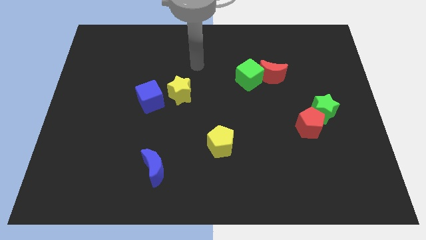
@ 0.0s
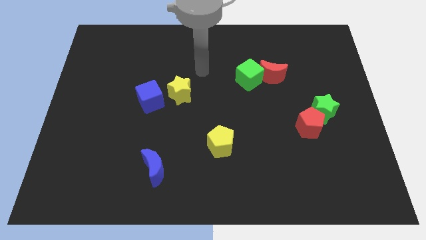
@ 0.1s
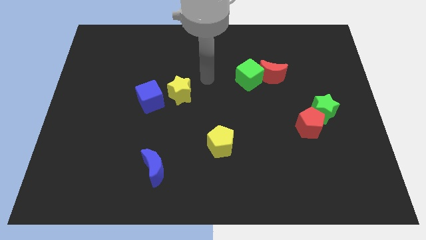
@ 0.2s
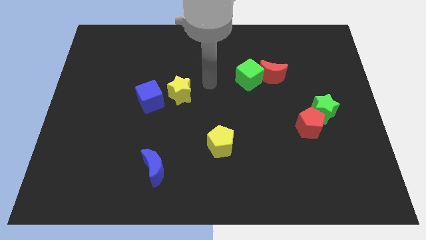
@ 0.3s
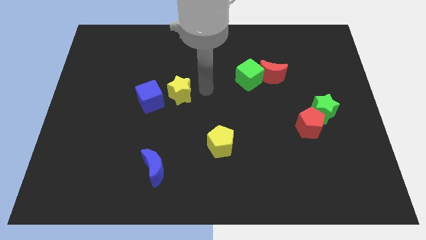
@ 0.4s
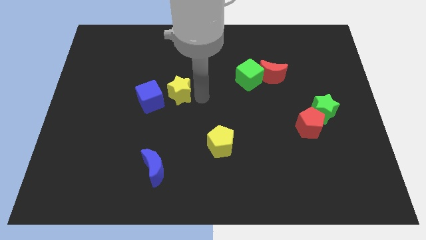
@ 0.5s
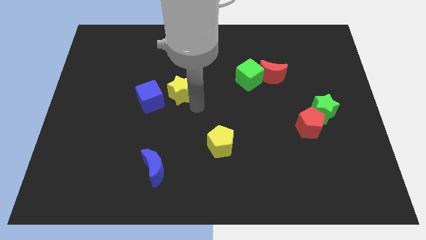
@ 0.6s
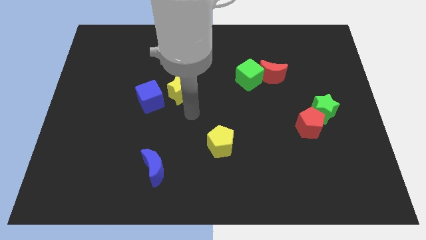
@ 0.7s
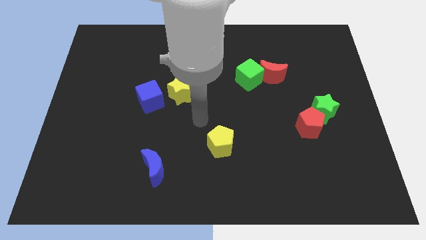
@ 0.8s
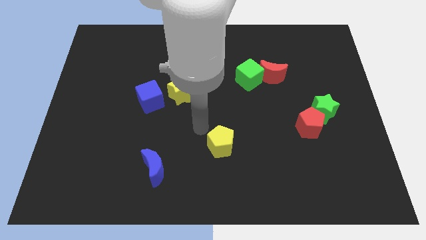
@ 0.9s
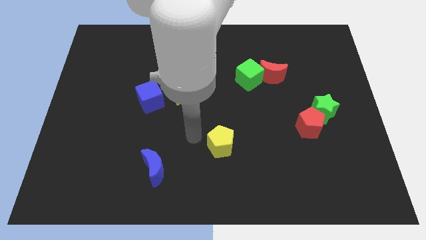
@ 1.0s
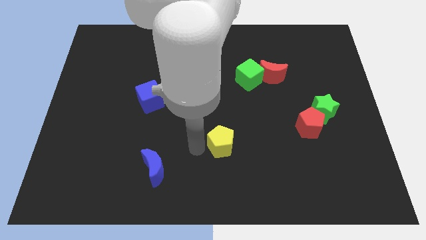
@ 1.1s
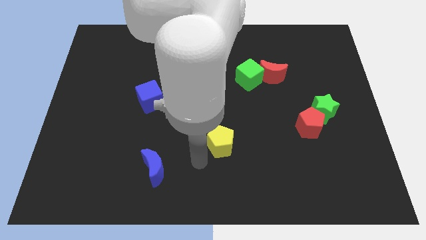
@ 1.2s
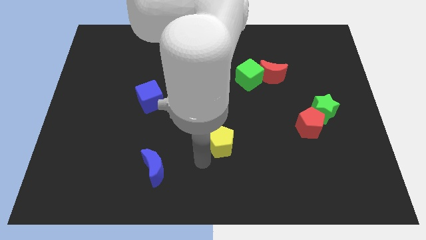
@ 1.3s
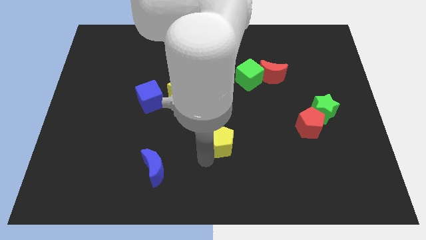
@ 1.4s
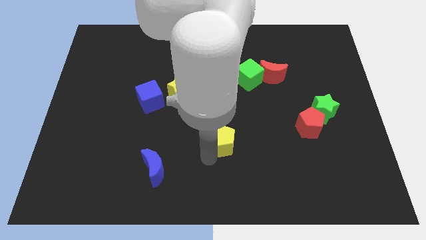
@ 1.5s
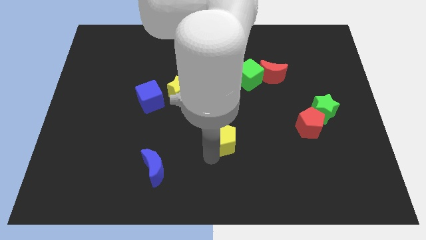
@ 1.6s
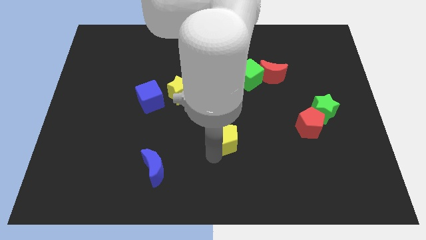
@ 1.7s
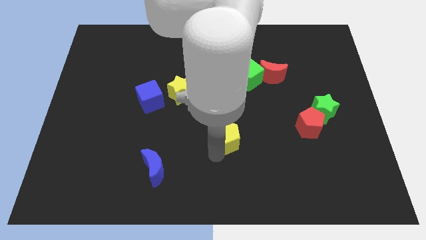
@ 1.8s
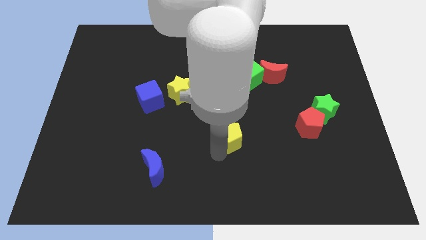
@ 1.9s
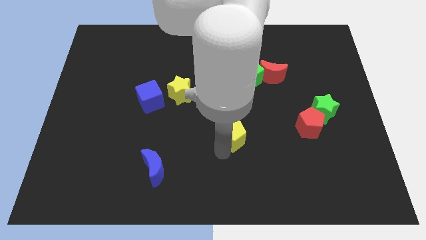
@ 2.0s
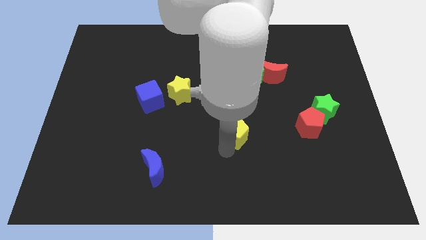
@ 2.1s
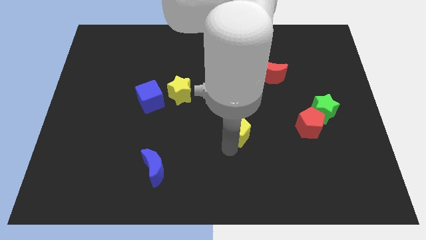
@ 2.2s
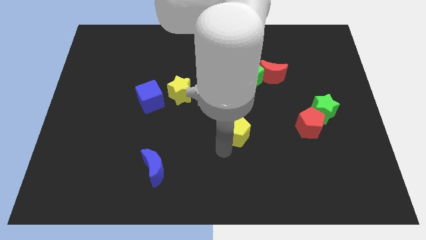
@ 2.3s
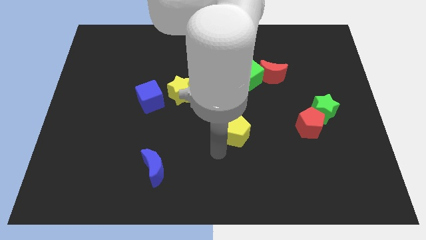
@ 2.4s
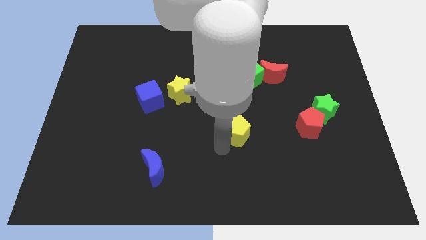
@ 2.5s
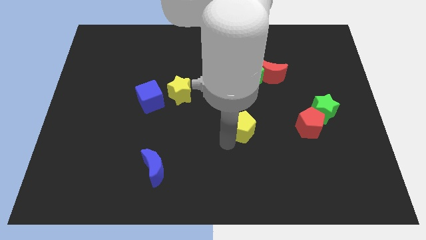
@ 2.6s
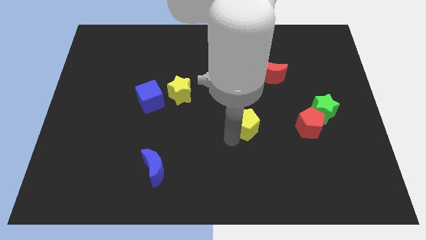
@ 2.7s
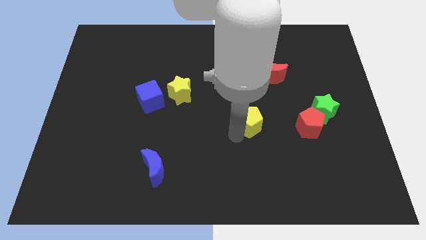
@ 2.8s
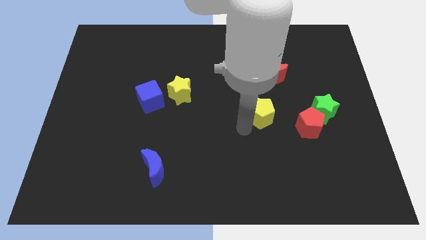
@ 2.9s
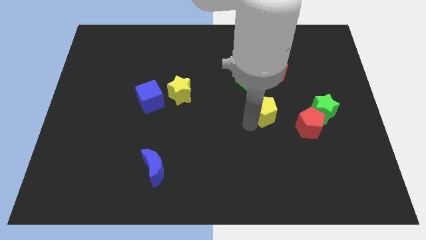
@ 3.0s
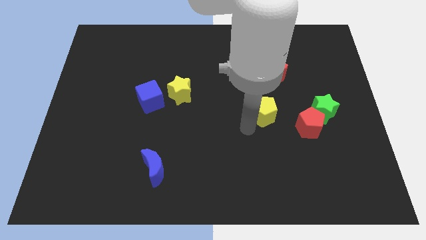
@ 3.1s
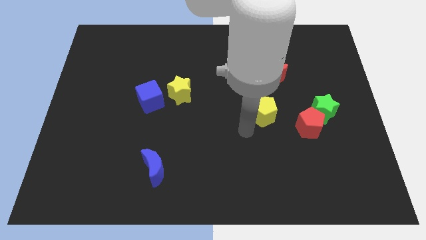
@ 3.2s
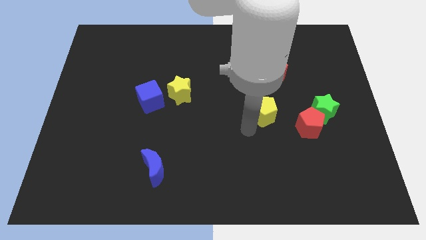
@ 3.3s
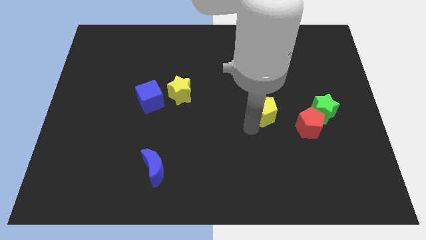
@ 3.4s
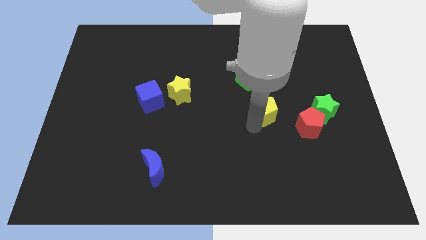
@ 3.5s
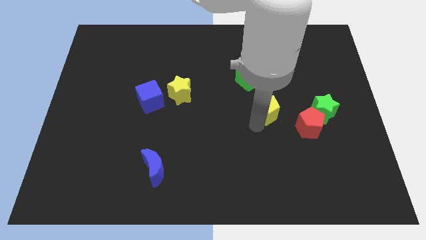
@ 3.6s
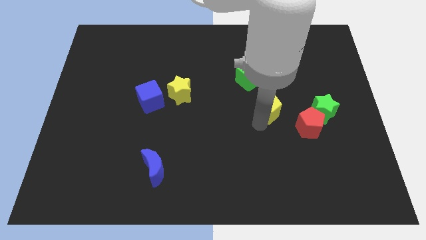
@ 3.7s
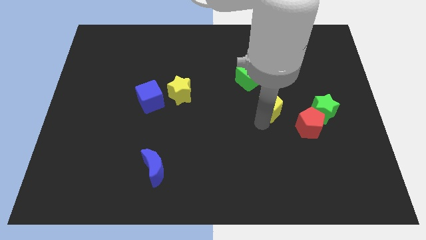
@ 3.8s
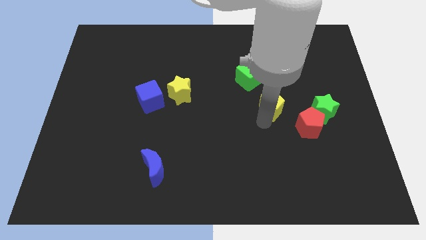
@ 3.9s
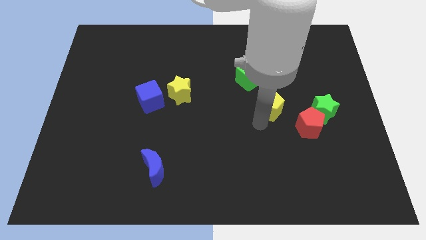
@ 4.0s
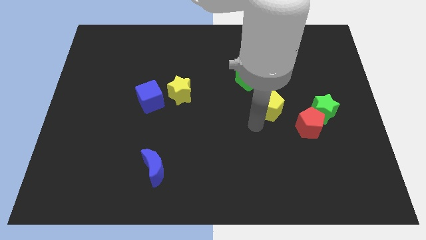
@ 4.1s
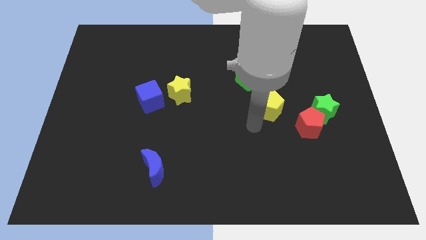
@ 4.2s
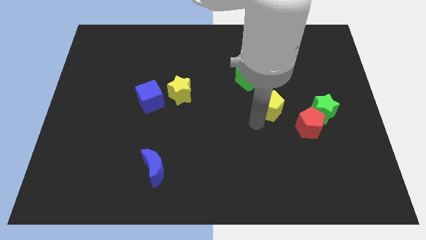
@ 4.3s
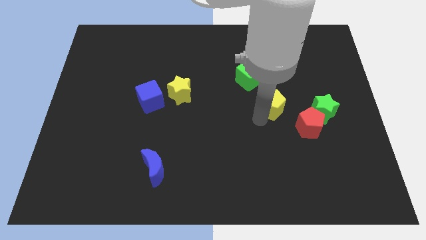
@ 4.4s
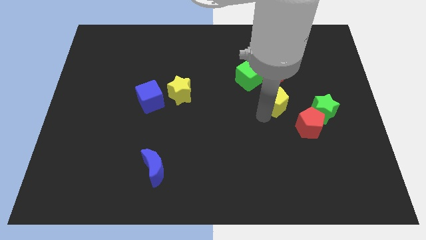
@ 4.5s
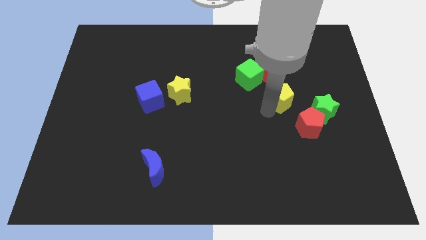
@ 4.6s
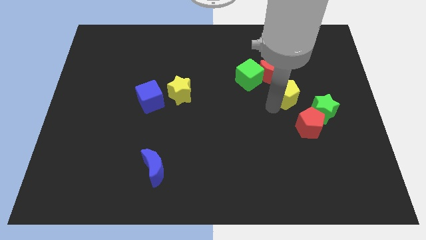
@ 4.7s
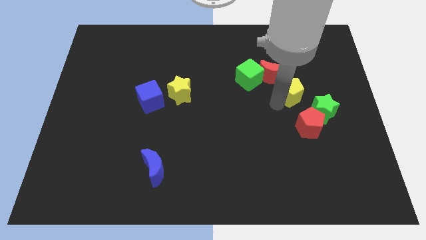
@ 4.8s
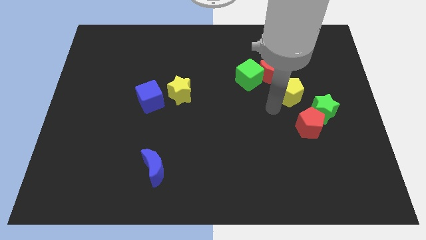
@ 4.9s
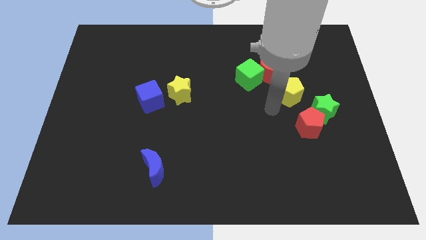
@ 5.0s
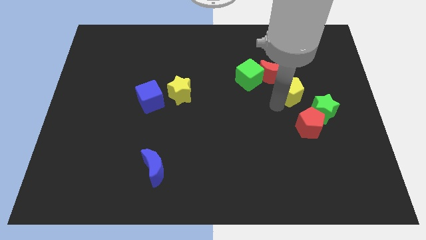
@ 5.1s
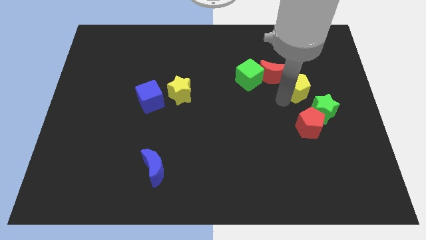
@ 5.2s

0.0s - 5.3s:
put the yellow pentagon to the right side of the red moon

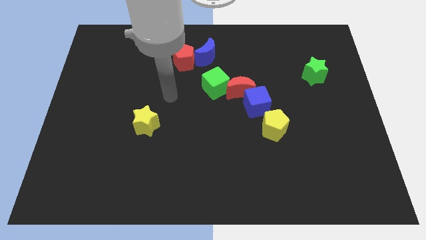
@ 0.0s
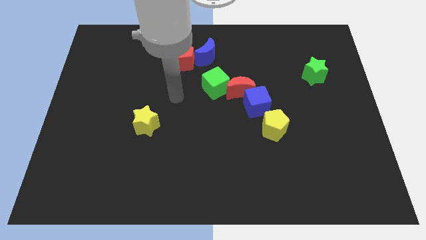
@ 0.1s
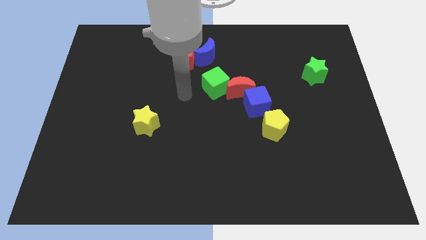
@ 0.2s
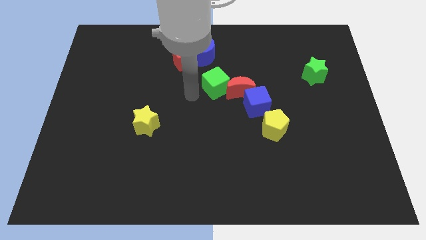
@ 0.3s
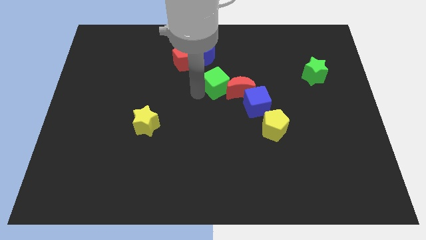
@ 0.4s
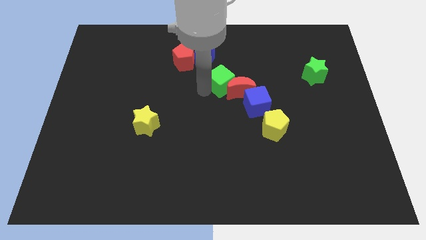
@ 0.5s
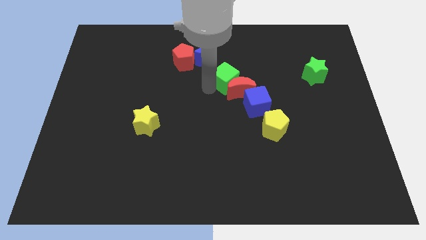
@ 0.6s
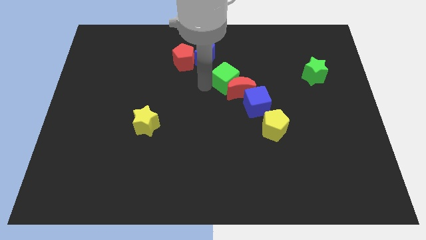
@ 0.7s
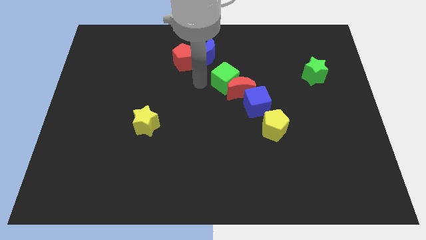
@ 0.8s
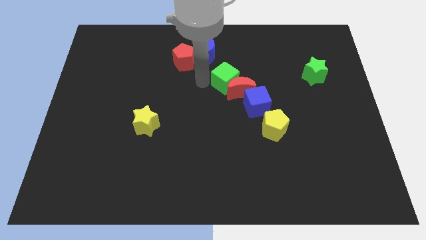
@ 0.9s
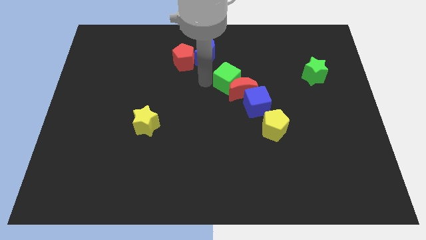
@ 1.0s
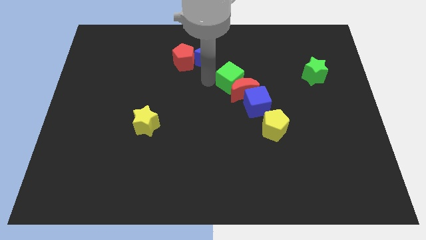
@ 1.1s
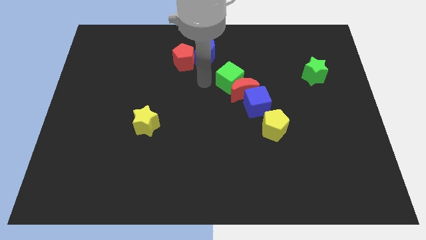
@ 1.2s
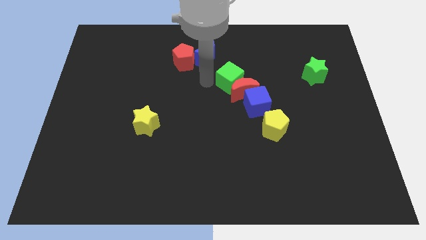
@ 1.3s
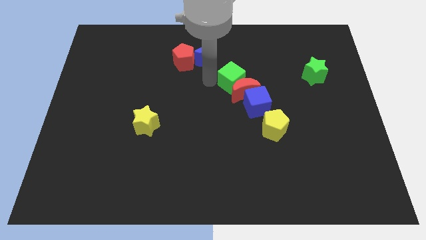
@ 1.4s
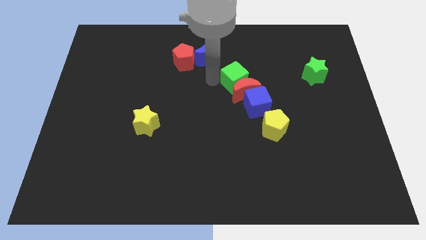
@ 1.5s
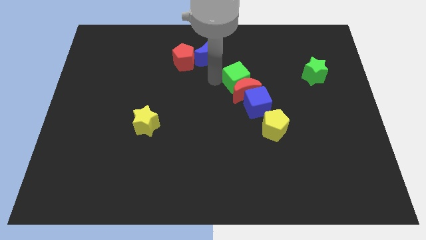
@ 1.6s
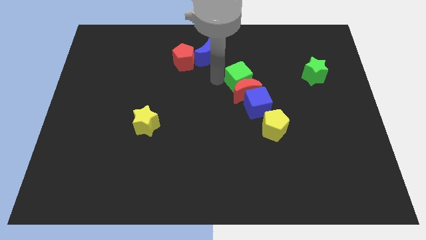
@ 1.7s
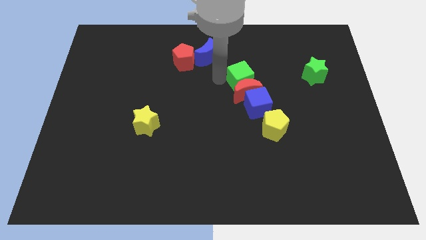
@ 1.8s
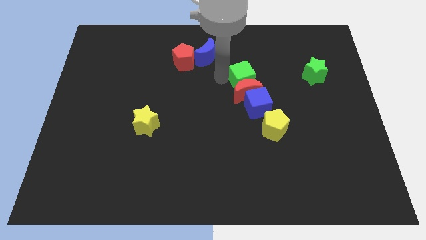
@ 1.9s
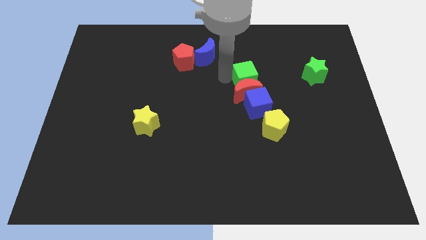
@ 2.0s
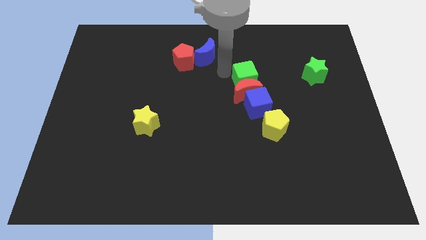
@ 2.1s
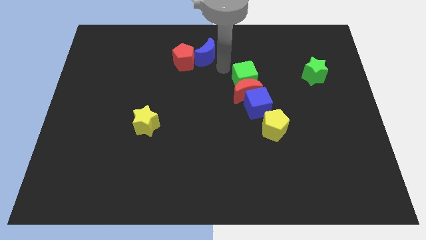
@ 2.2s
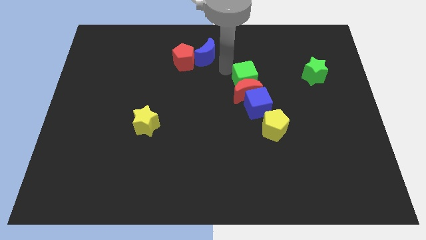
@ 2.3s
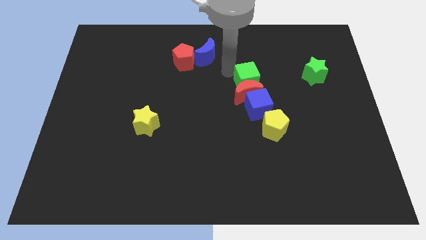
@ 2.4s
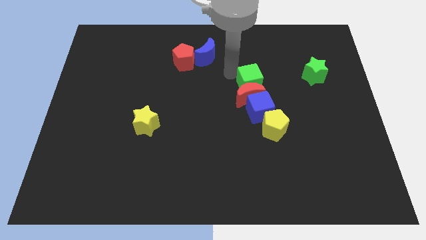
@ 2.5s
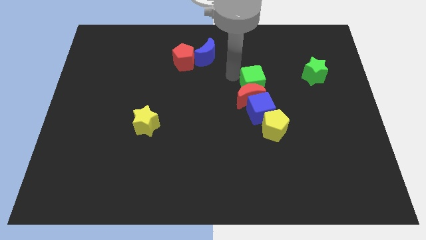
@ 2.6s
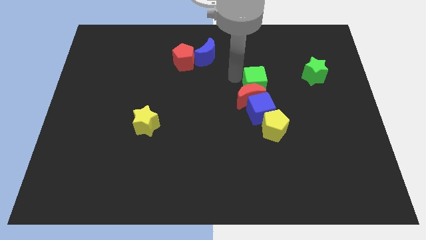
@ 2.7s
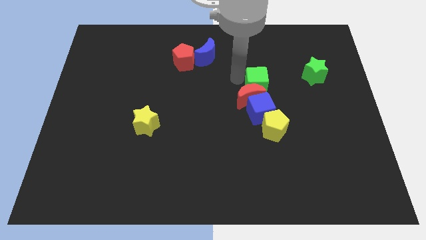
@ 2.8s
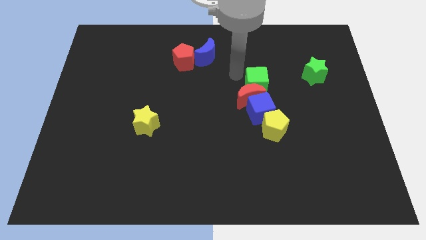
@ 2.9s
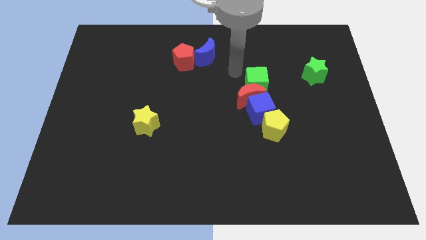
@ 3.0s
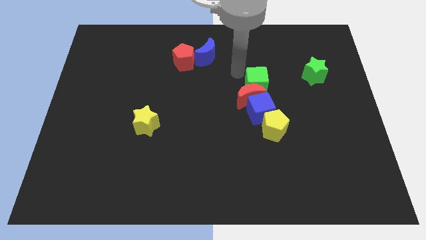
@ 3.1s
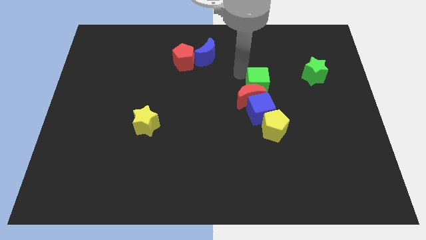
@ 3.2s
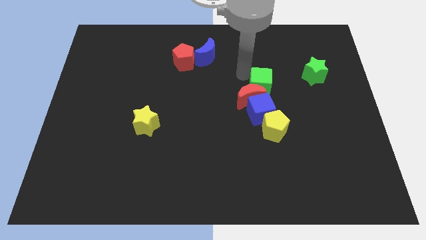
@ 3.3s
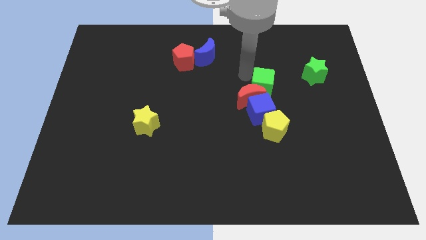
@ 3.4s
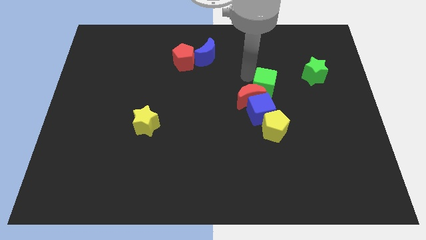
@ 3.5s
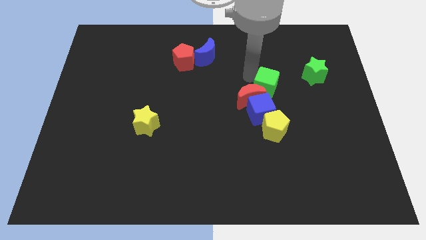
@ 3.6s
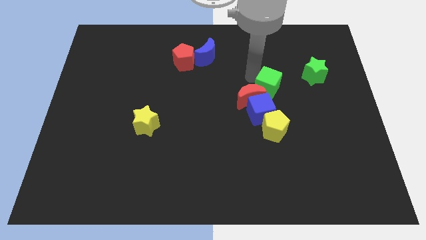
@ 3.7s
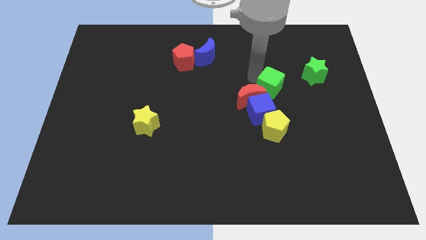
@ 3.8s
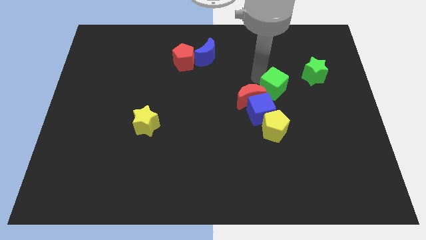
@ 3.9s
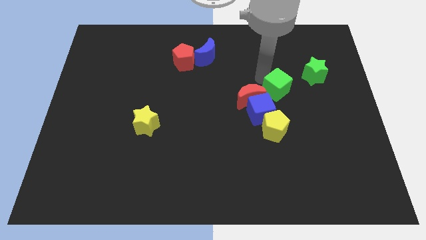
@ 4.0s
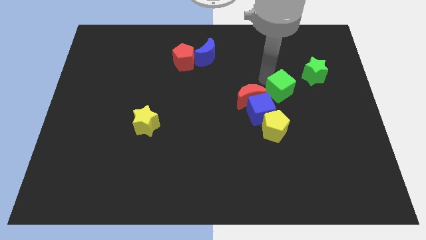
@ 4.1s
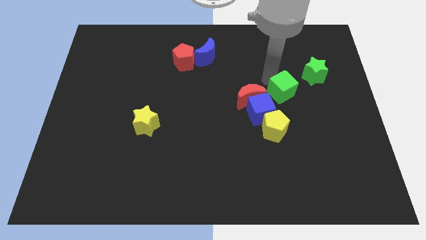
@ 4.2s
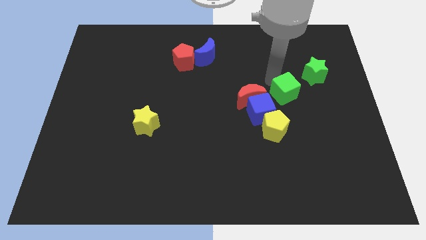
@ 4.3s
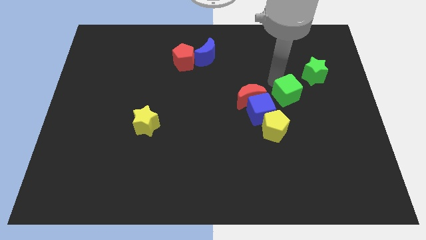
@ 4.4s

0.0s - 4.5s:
push the green cube diagonally up and to the right of the yellow pentagon
